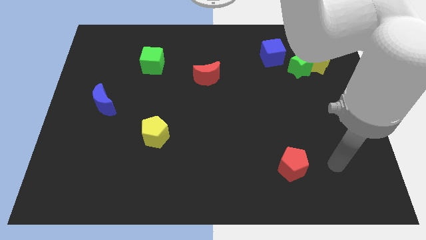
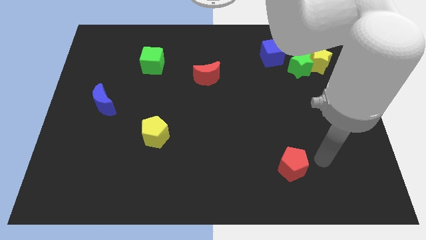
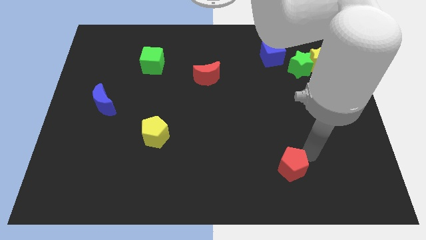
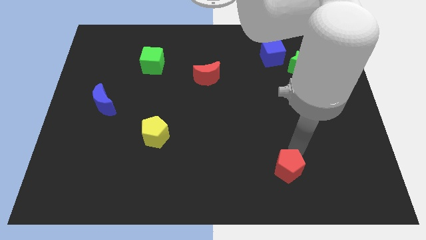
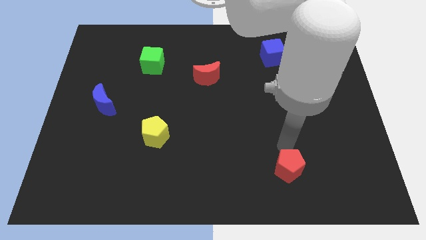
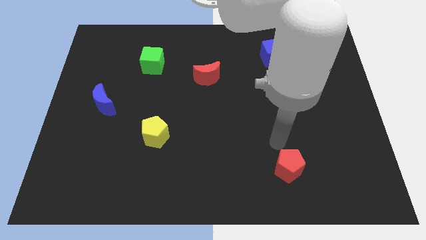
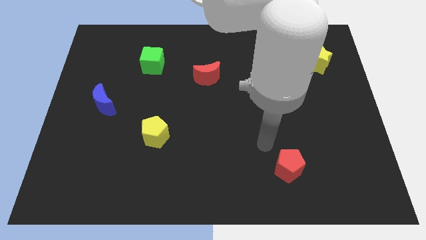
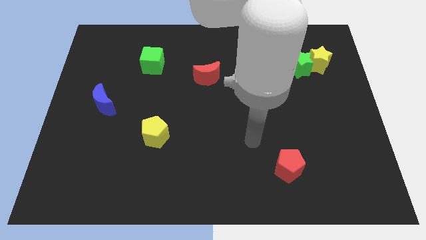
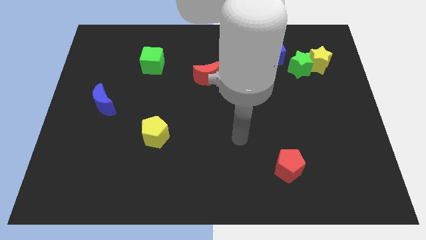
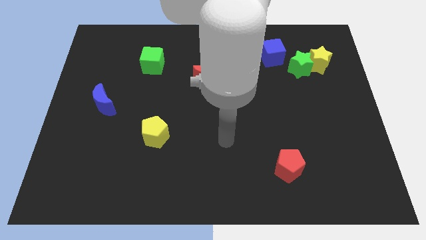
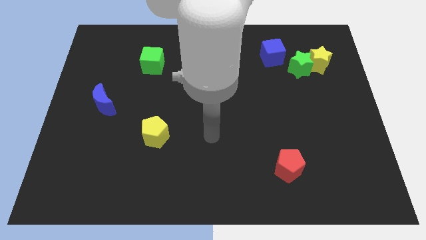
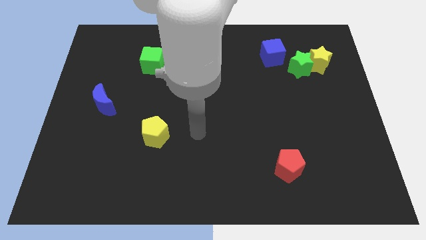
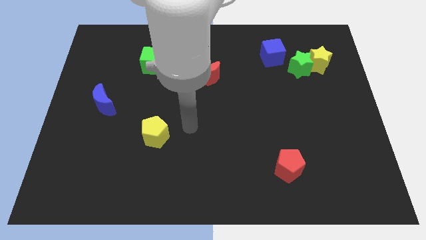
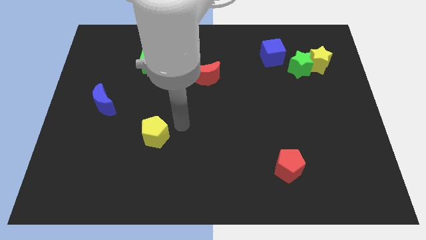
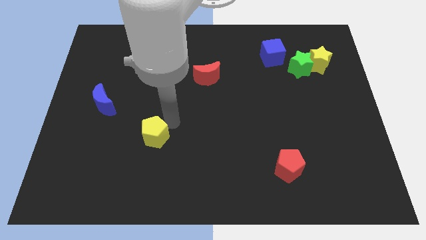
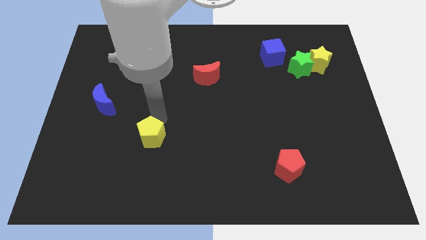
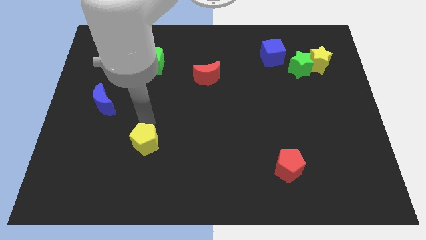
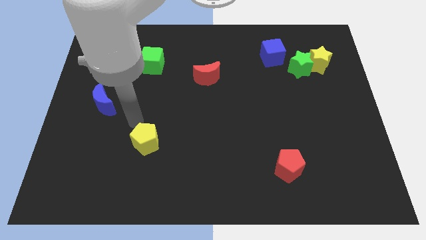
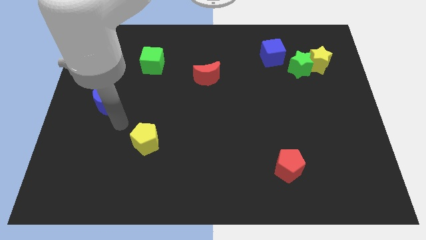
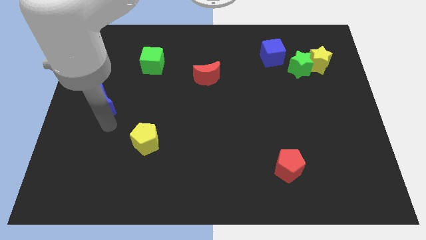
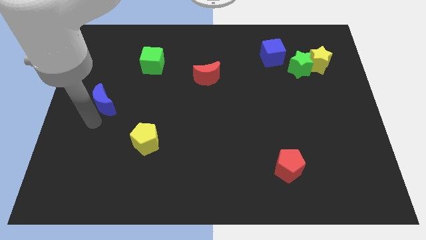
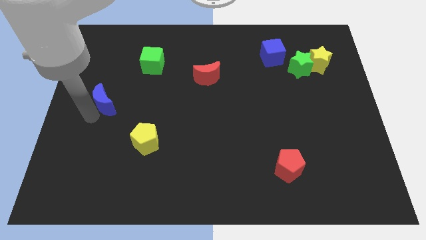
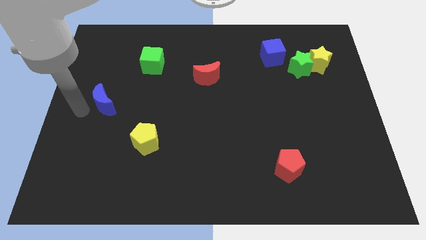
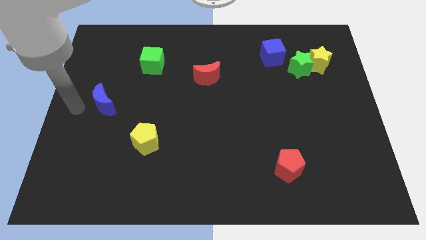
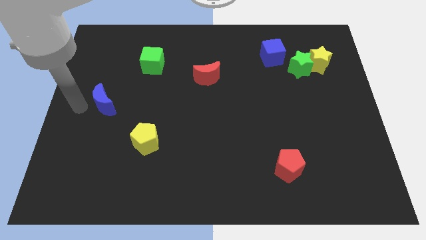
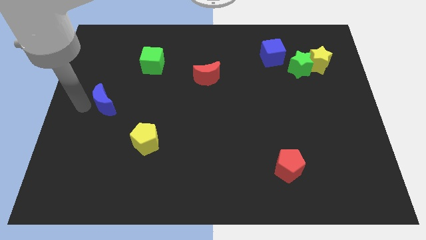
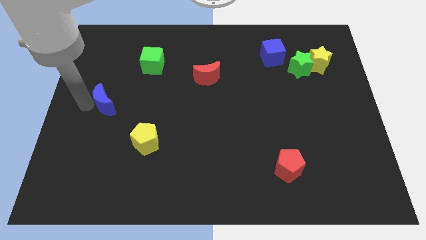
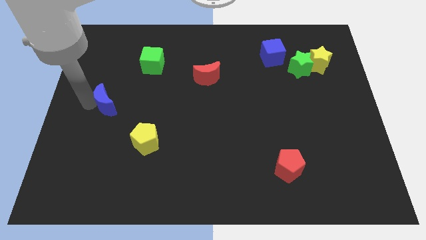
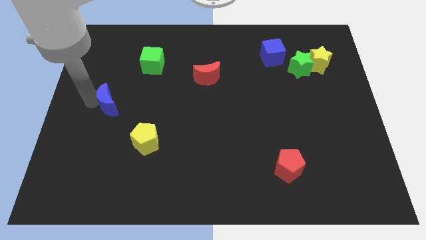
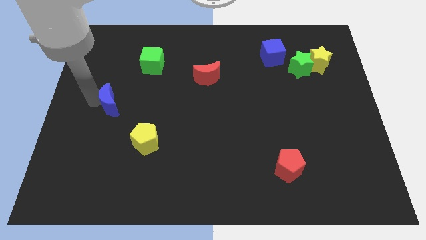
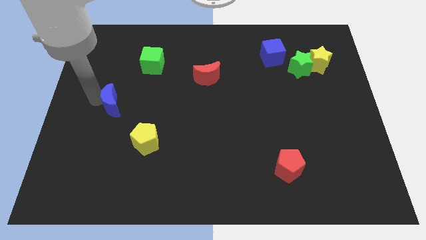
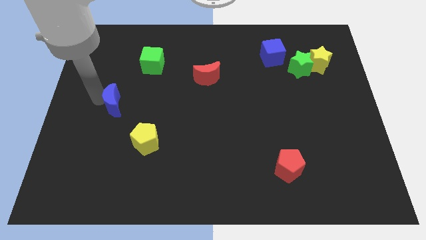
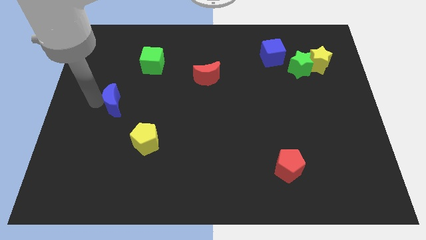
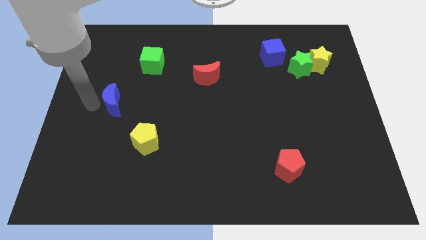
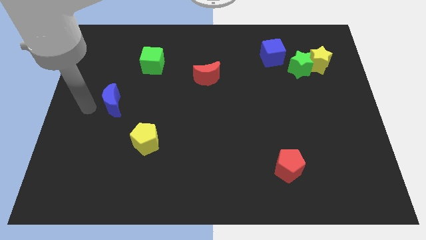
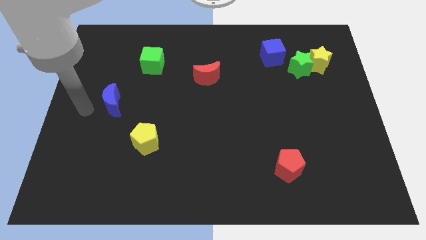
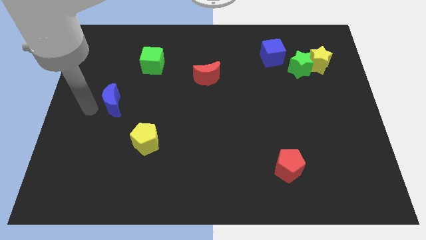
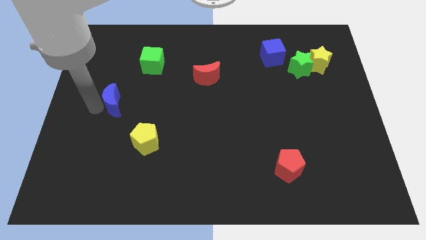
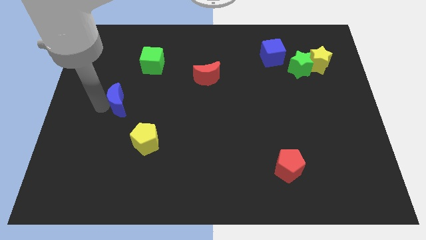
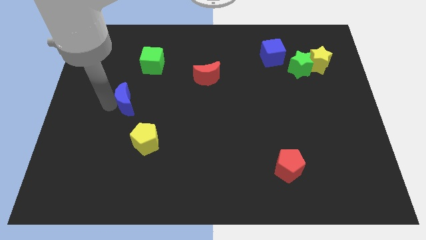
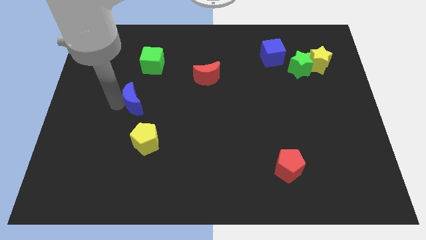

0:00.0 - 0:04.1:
slightly slide the blue moon right

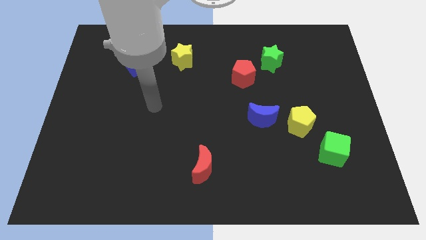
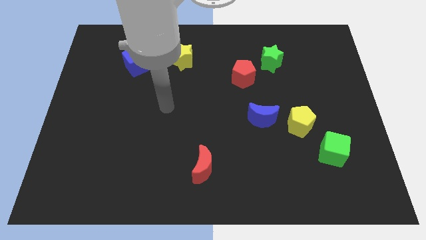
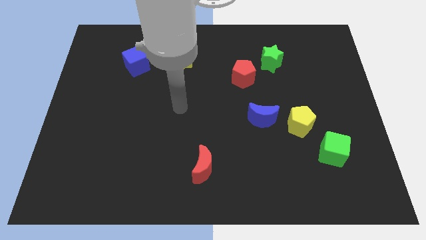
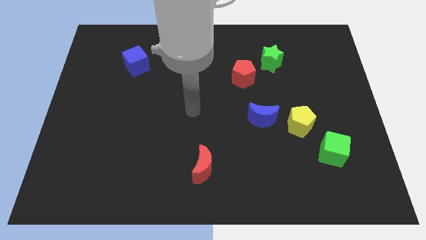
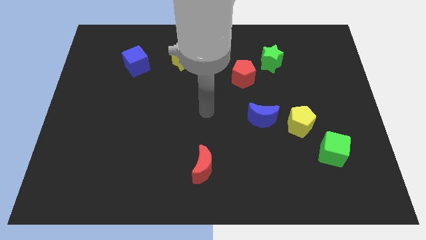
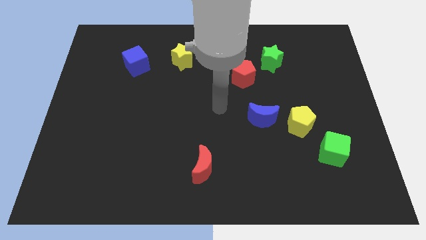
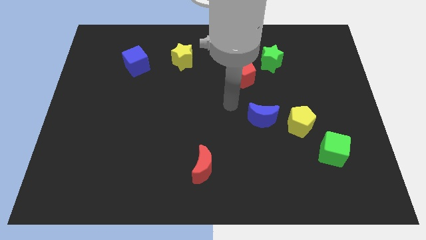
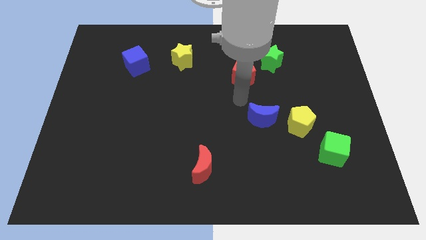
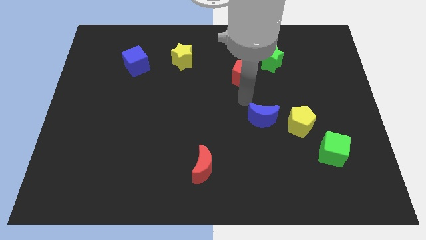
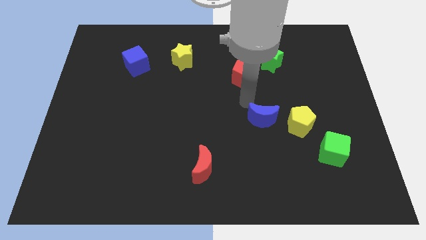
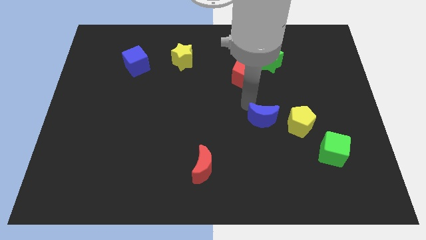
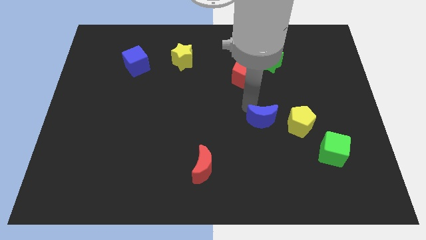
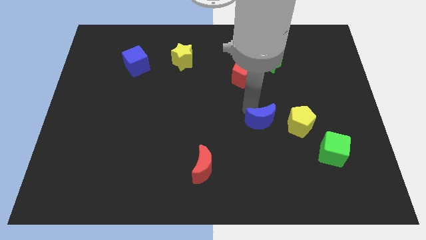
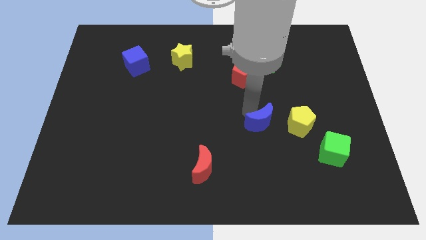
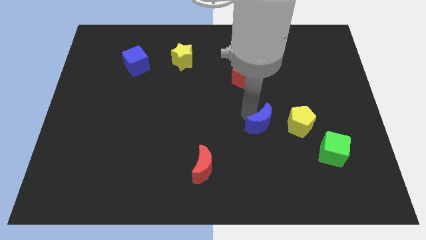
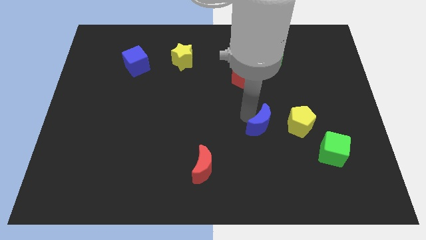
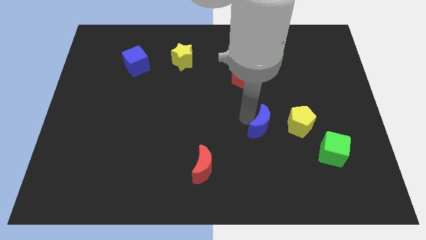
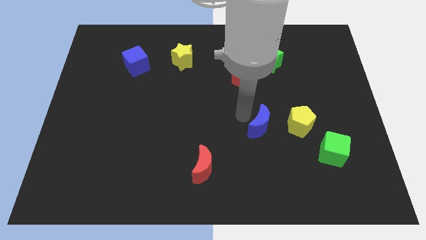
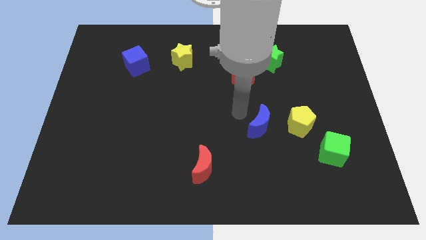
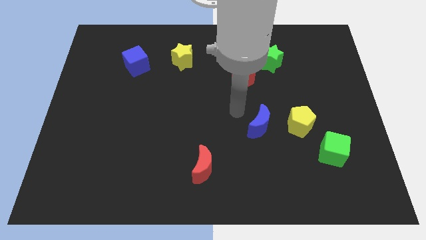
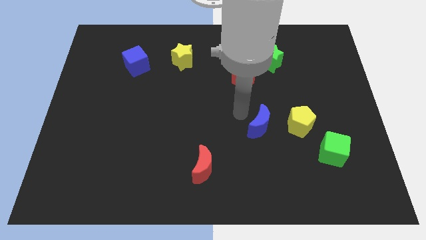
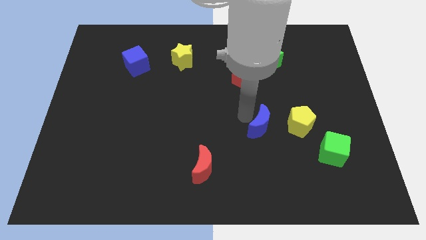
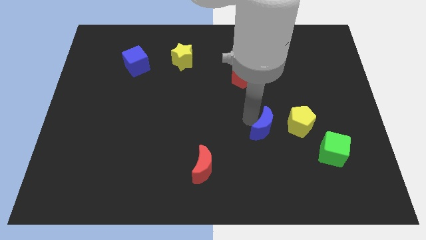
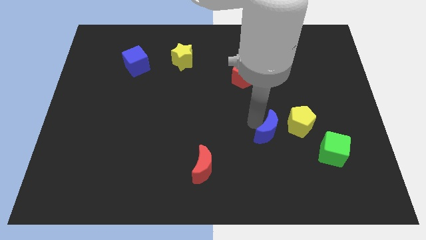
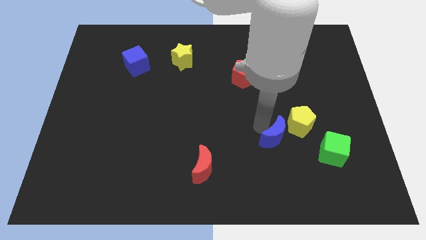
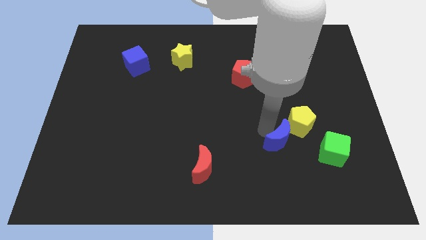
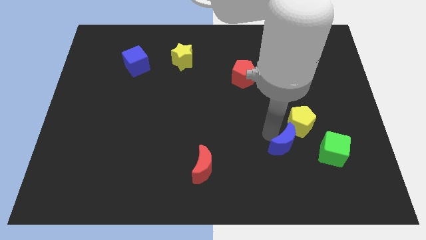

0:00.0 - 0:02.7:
move the blue moon somewhat downwards and right diagonally

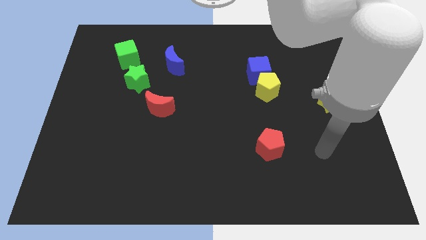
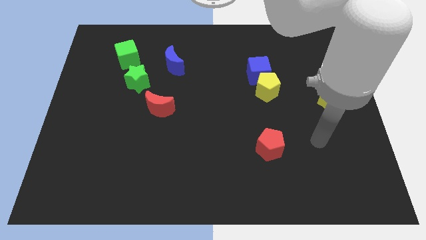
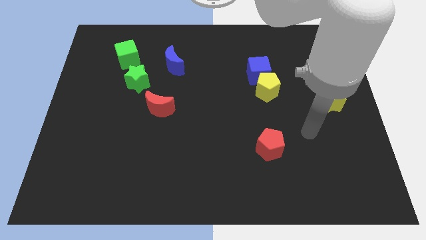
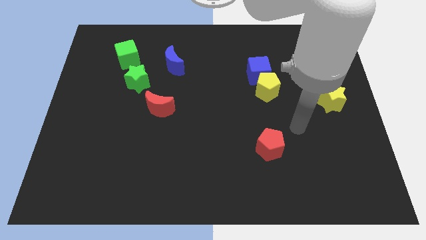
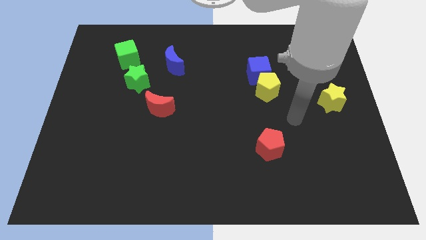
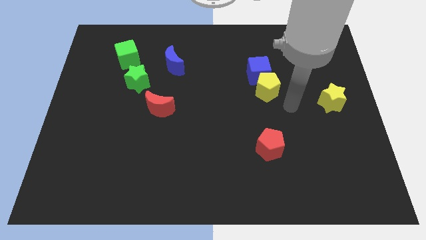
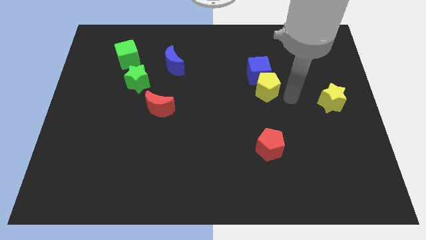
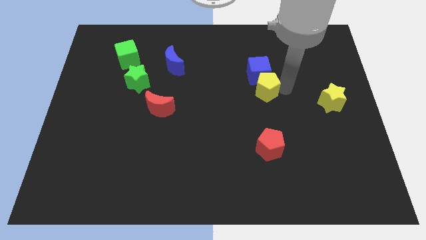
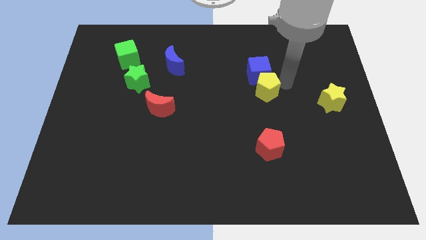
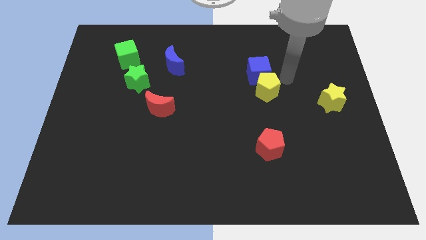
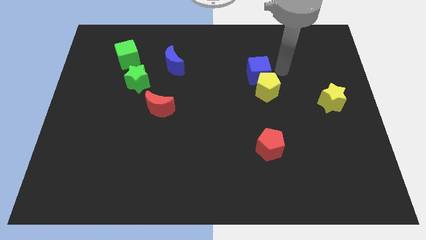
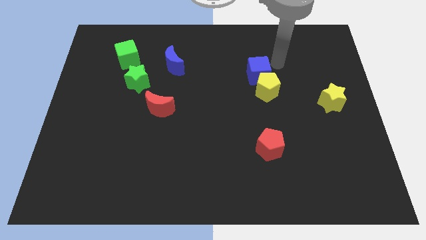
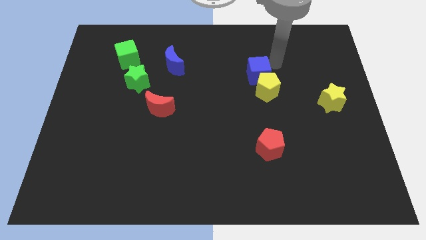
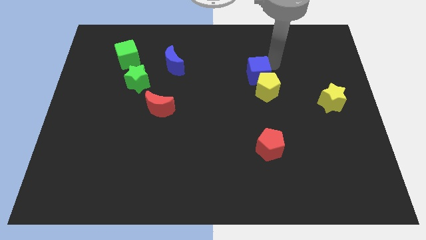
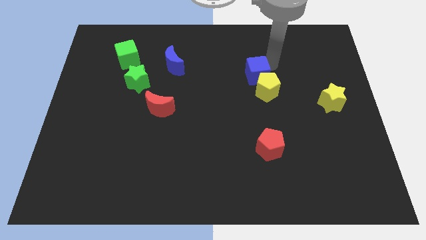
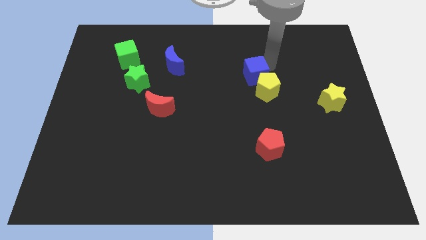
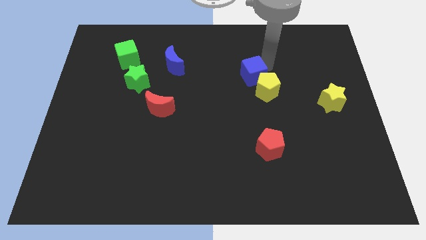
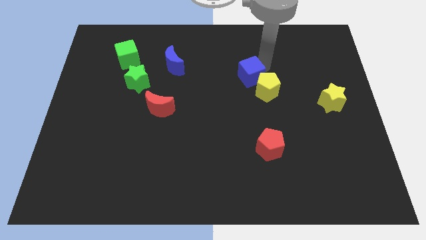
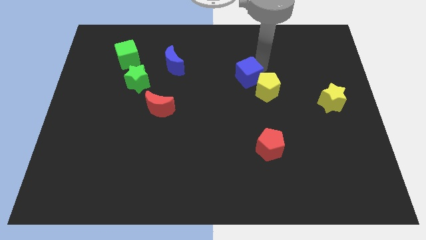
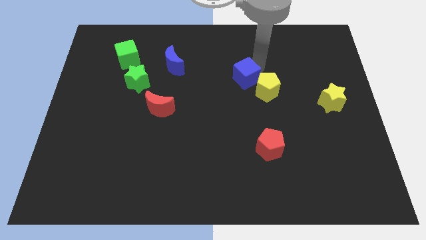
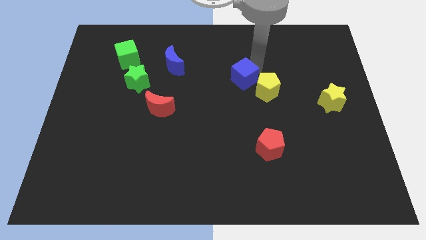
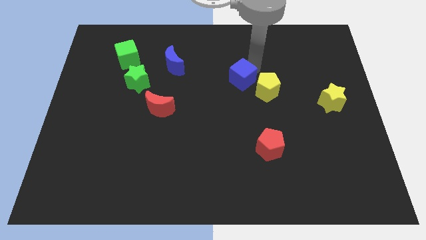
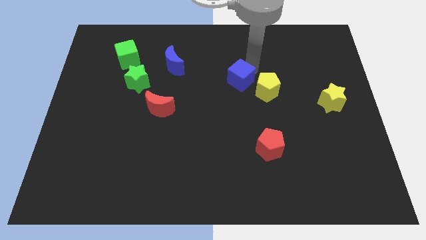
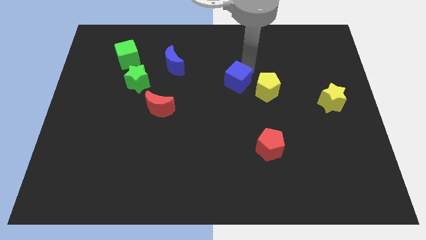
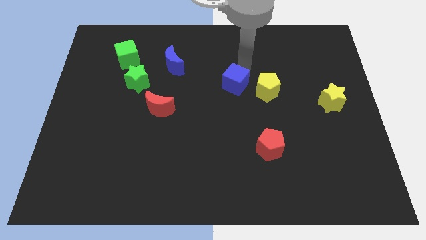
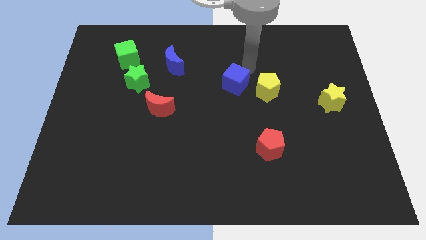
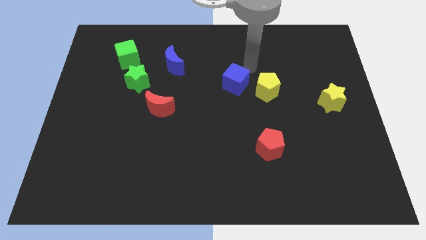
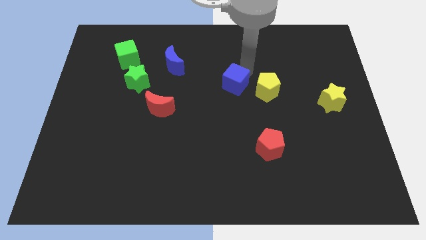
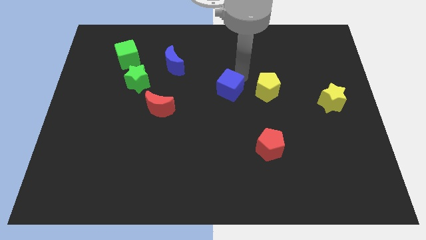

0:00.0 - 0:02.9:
slide the blue cube a bit down and to the left
